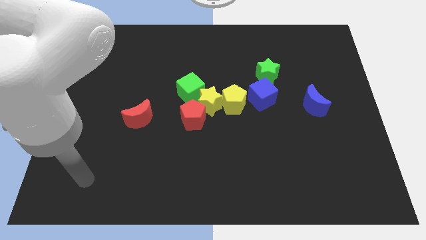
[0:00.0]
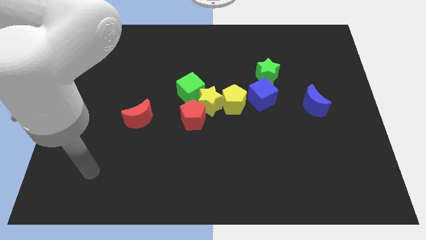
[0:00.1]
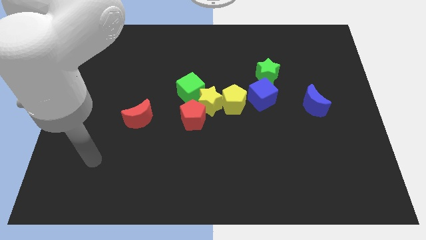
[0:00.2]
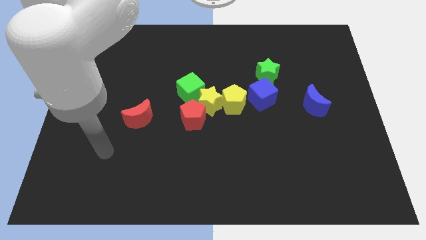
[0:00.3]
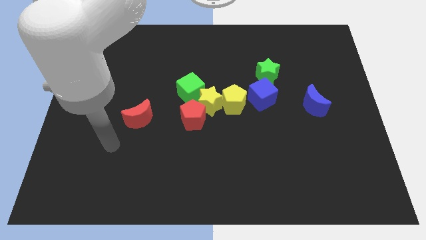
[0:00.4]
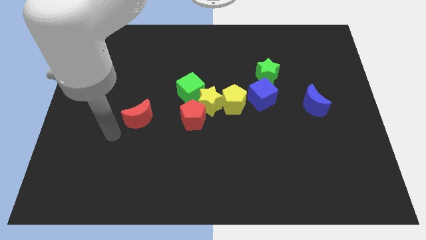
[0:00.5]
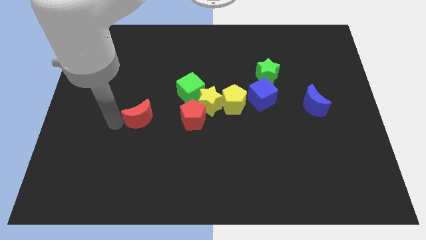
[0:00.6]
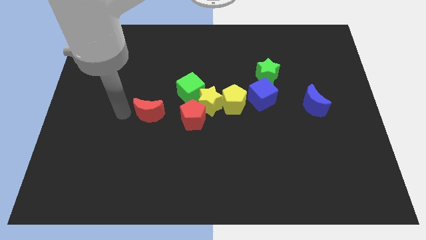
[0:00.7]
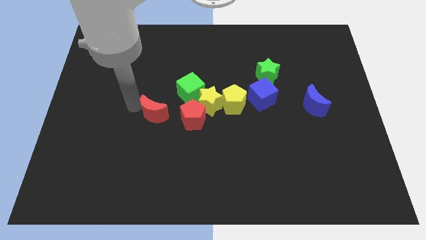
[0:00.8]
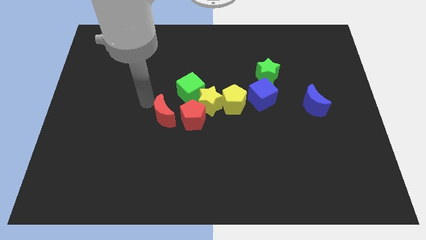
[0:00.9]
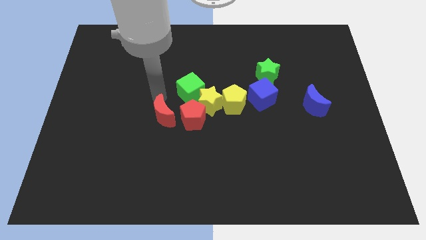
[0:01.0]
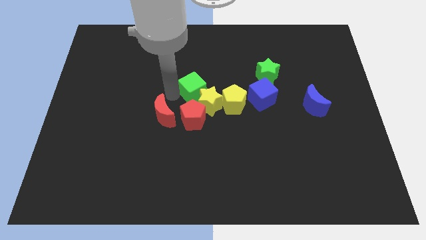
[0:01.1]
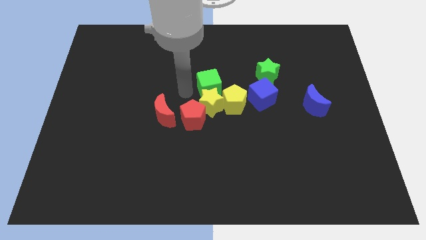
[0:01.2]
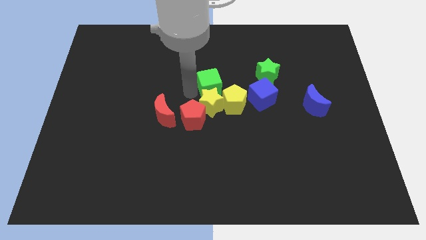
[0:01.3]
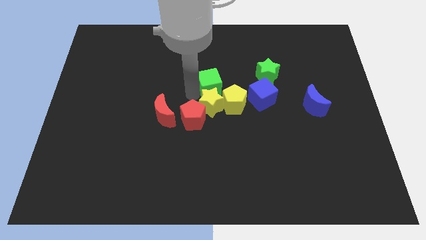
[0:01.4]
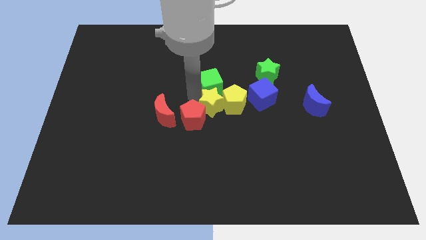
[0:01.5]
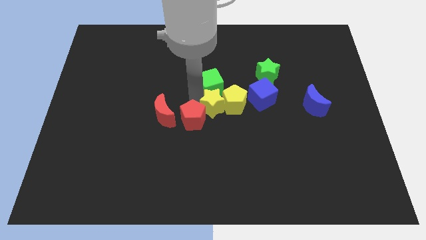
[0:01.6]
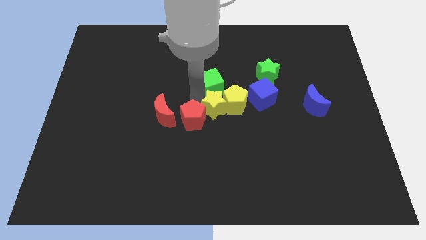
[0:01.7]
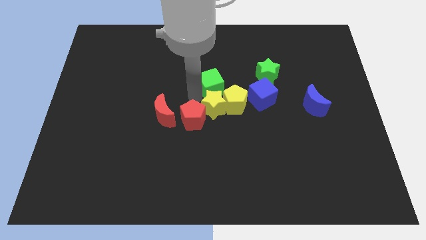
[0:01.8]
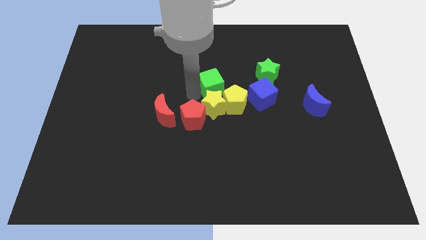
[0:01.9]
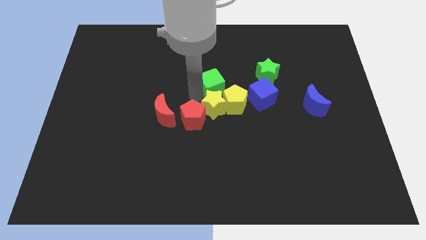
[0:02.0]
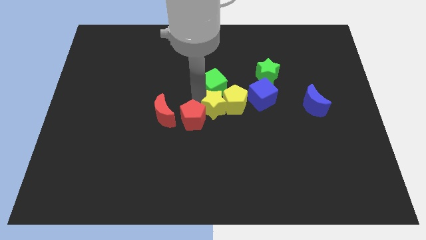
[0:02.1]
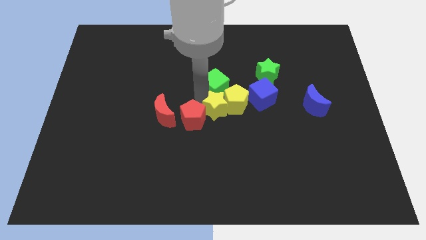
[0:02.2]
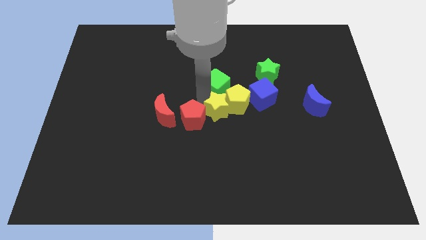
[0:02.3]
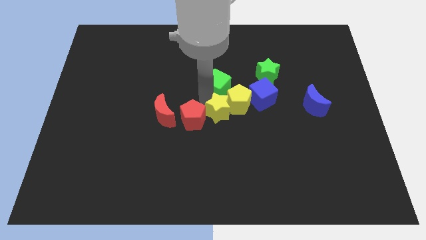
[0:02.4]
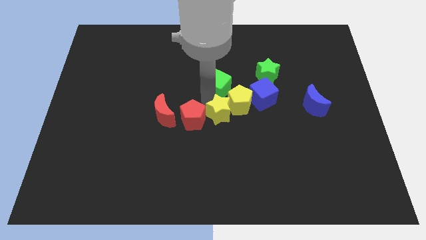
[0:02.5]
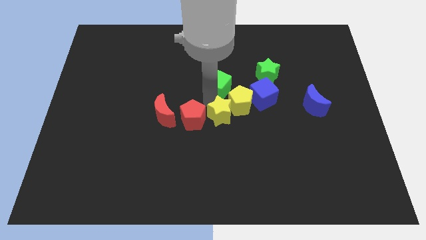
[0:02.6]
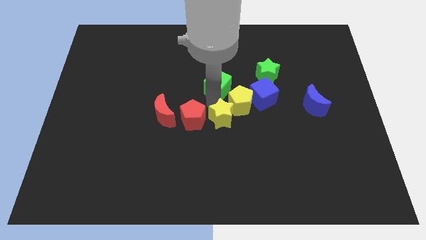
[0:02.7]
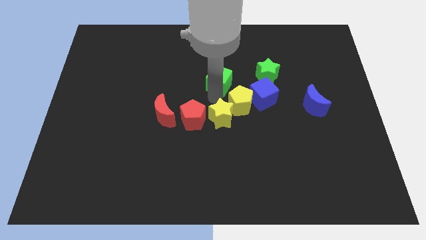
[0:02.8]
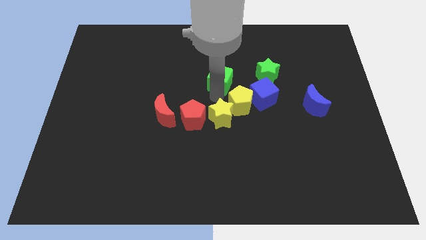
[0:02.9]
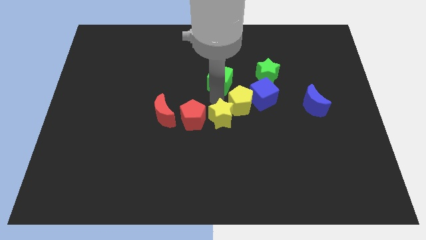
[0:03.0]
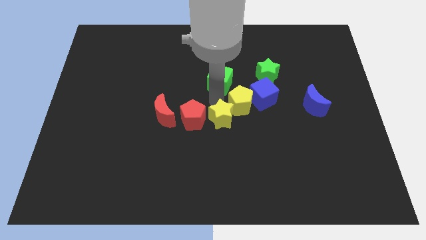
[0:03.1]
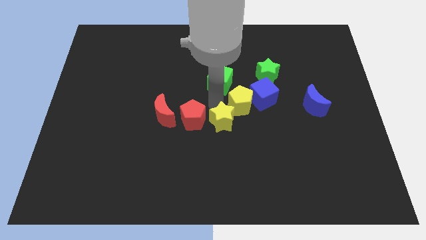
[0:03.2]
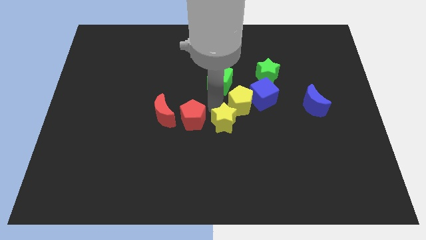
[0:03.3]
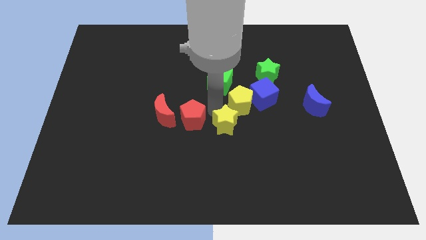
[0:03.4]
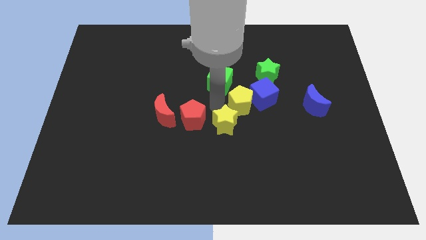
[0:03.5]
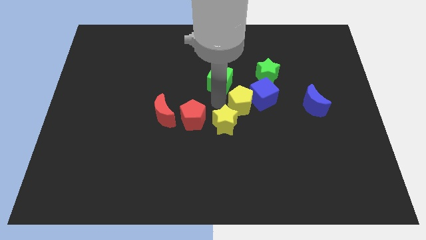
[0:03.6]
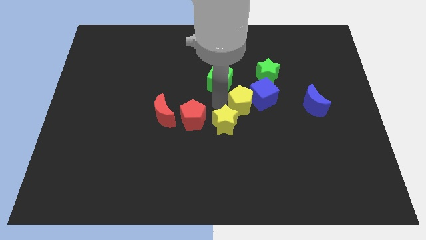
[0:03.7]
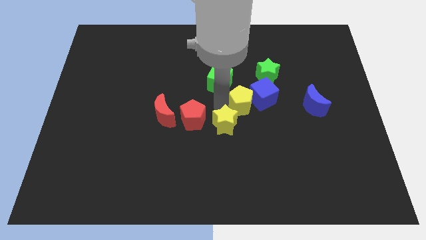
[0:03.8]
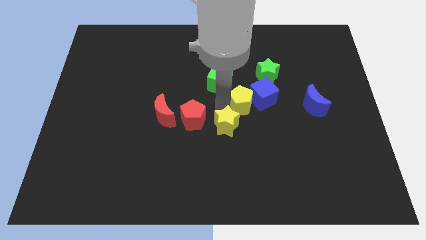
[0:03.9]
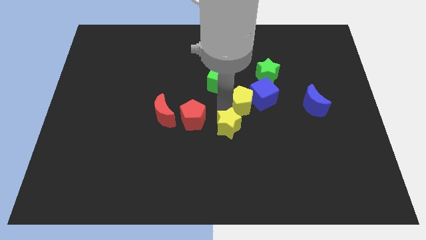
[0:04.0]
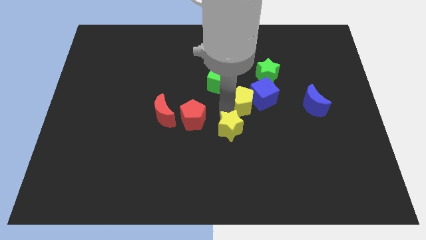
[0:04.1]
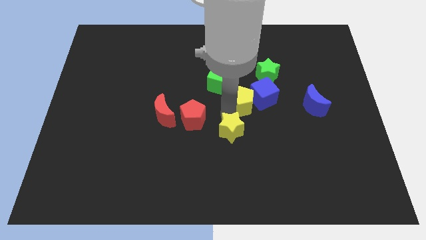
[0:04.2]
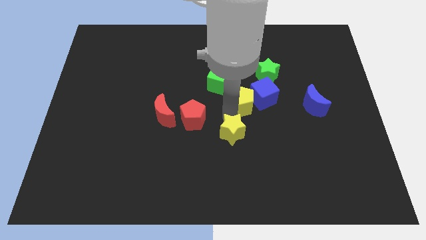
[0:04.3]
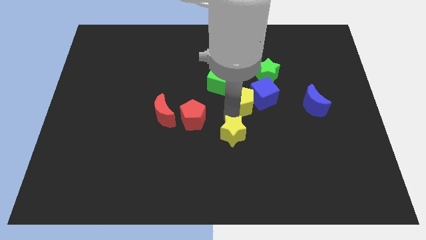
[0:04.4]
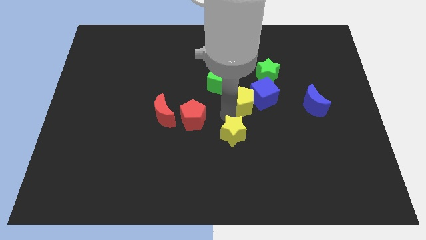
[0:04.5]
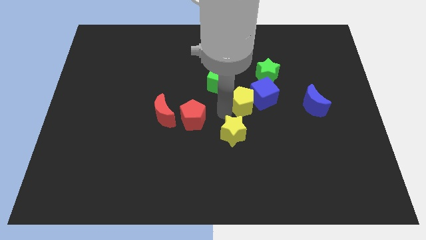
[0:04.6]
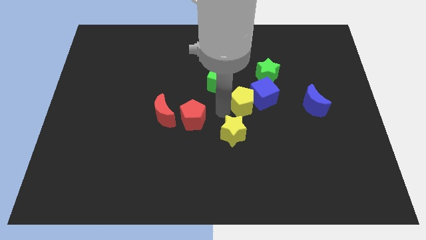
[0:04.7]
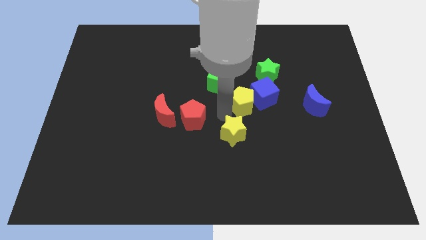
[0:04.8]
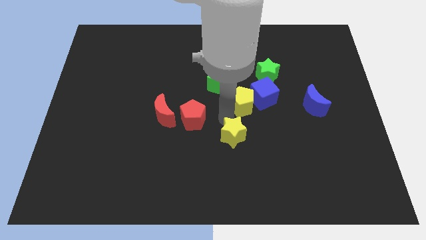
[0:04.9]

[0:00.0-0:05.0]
separate the yellow star from the red pentagon, yellow pentagon, and green cube

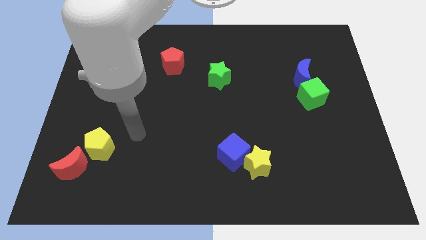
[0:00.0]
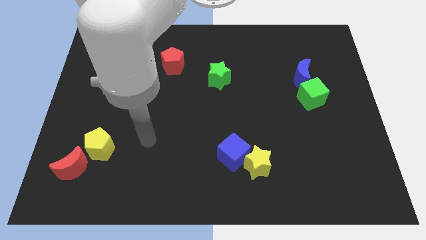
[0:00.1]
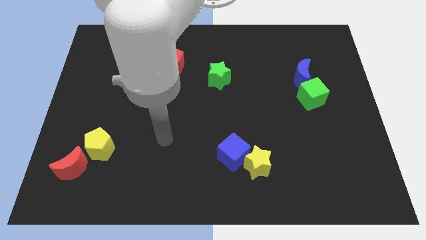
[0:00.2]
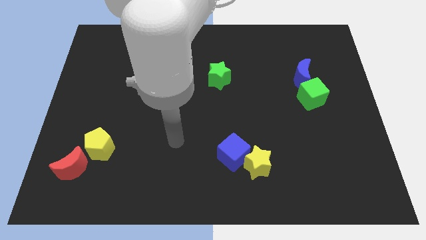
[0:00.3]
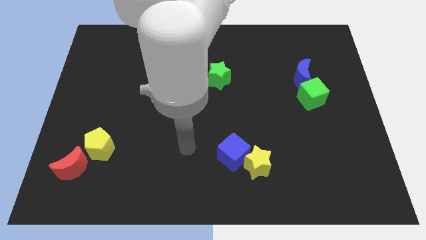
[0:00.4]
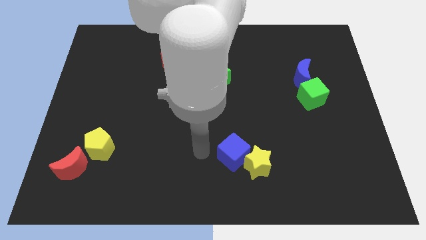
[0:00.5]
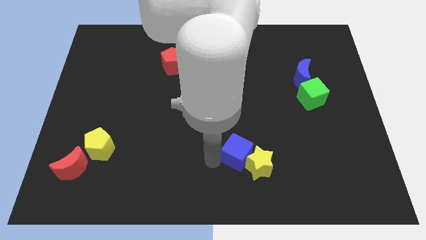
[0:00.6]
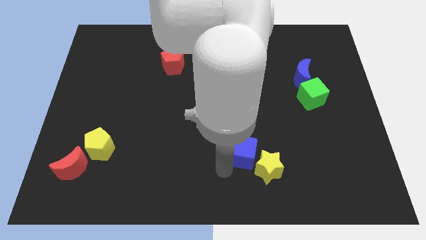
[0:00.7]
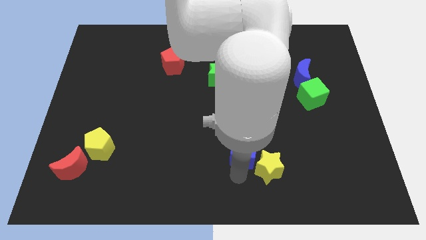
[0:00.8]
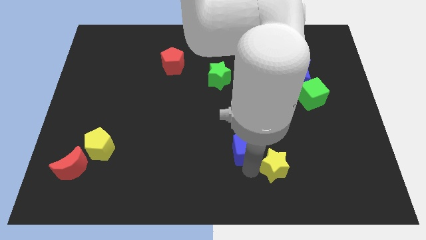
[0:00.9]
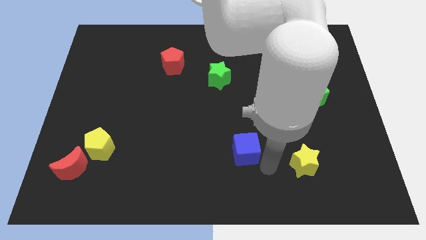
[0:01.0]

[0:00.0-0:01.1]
move the blue cube away from the yellow star

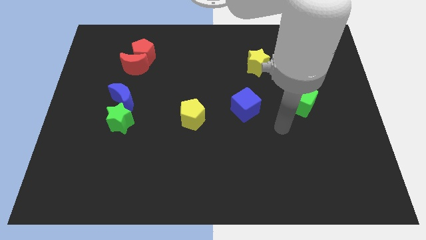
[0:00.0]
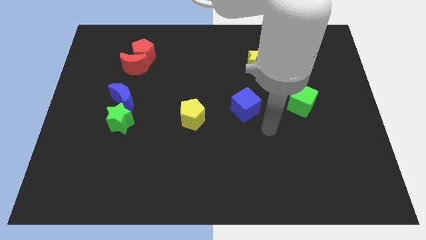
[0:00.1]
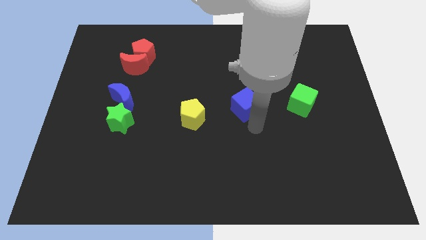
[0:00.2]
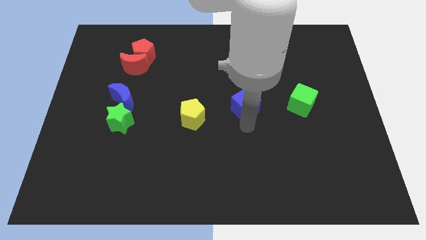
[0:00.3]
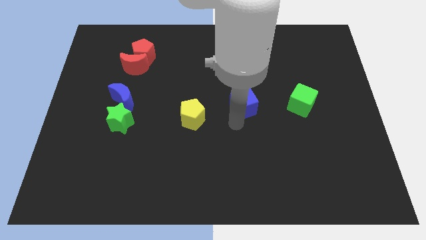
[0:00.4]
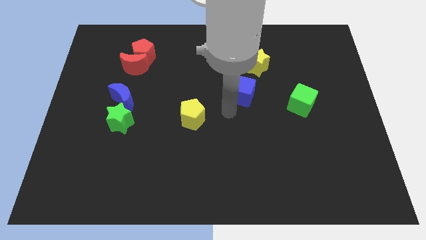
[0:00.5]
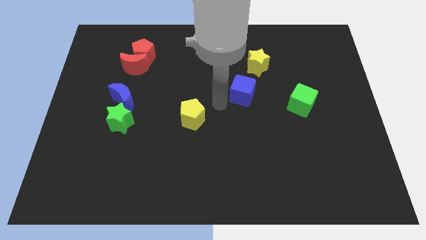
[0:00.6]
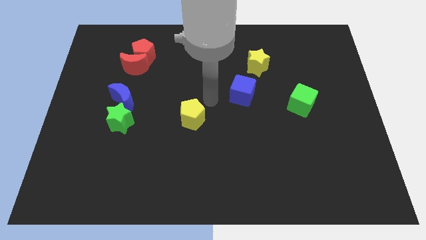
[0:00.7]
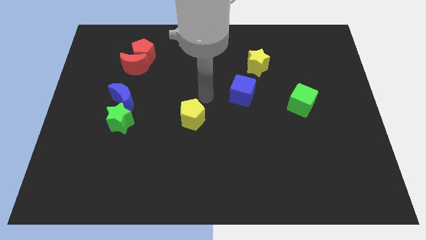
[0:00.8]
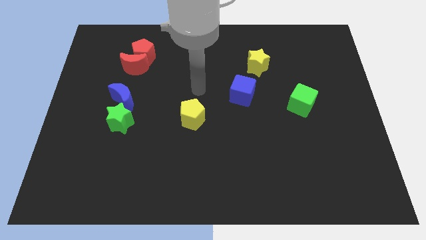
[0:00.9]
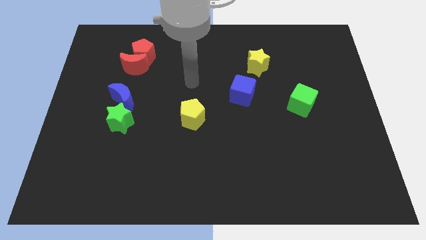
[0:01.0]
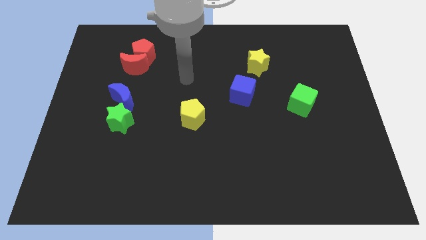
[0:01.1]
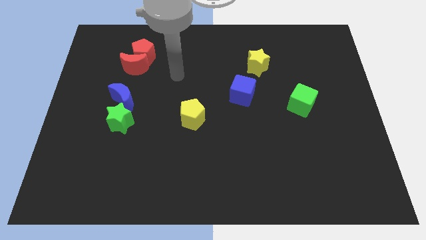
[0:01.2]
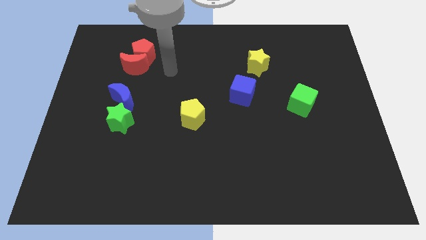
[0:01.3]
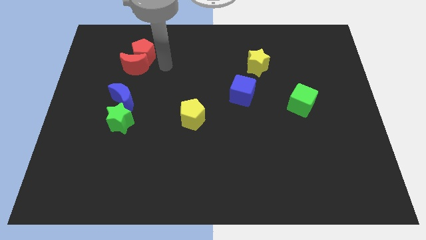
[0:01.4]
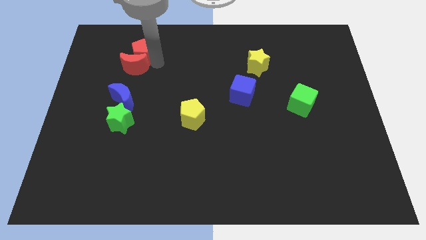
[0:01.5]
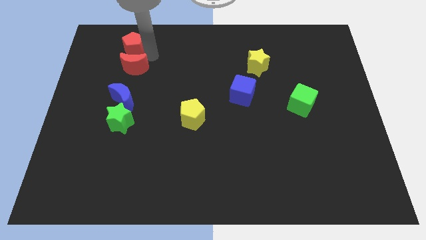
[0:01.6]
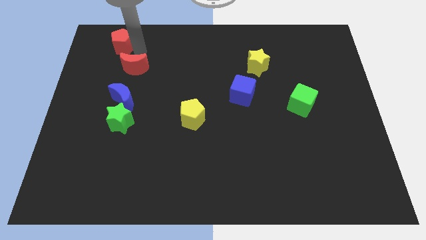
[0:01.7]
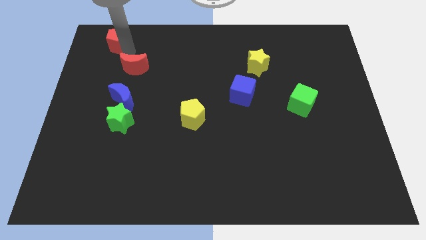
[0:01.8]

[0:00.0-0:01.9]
move the red moon away from the red pentagon

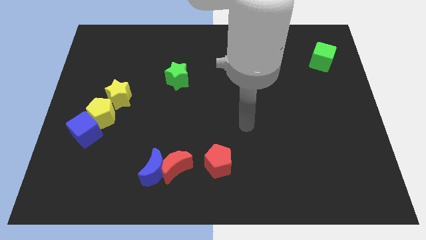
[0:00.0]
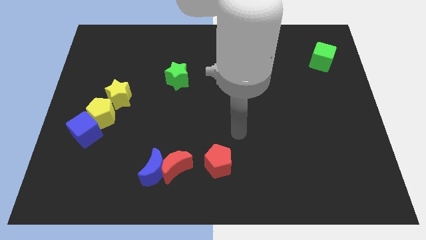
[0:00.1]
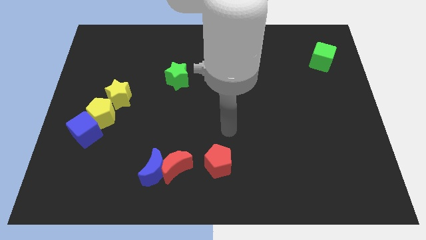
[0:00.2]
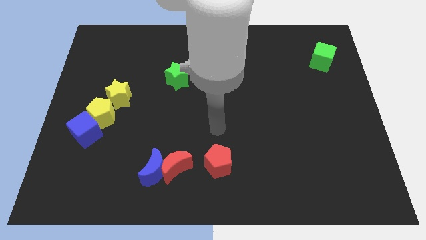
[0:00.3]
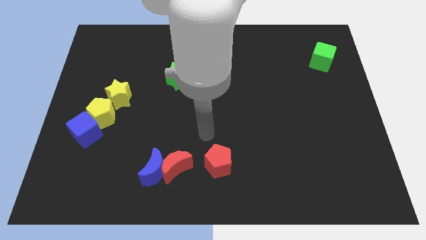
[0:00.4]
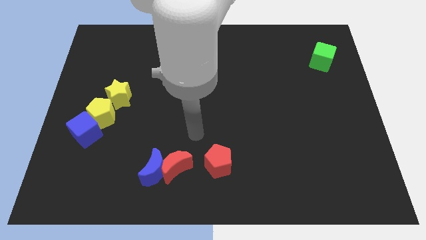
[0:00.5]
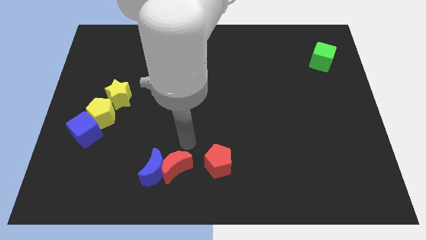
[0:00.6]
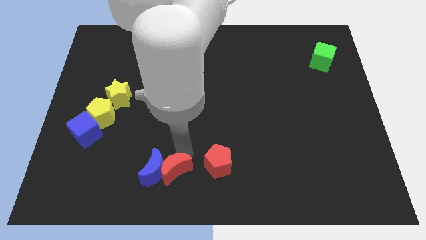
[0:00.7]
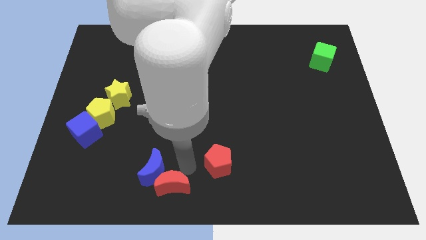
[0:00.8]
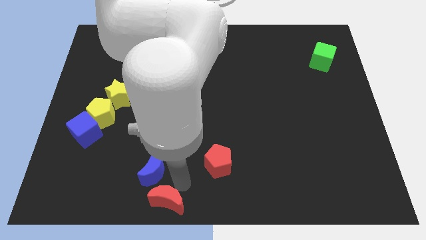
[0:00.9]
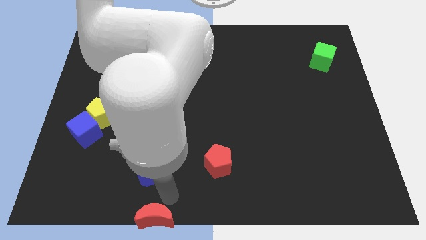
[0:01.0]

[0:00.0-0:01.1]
separate the blue moon from the red moon

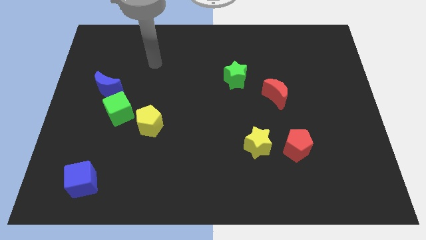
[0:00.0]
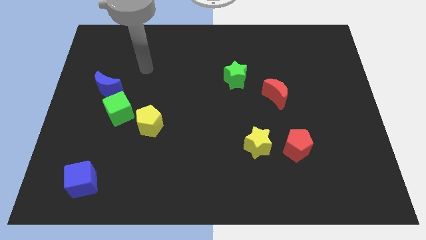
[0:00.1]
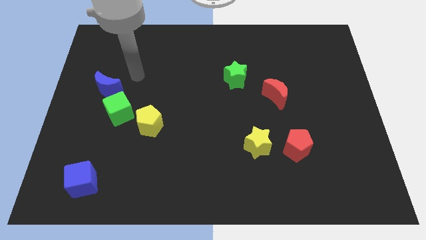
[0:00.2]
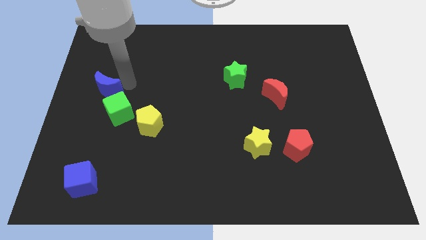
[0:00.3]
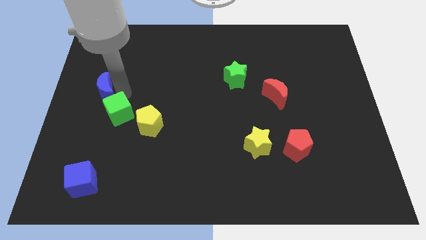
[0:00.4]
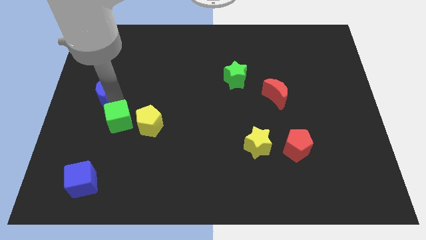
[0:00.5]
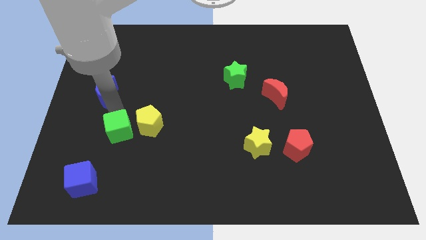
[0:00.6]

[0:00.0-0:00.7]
pull the blue moon apart from the green cube
